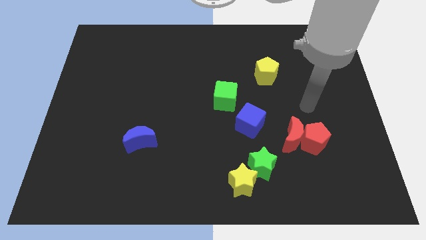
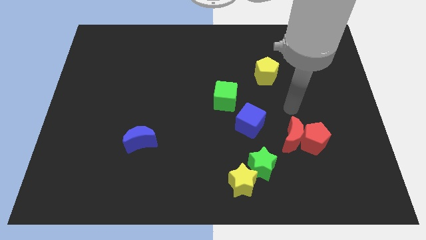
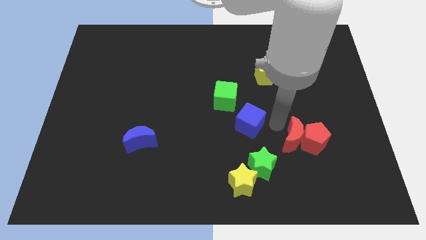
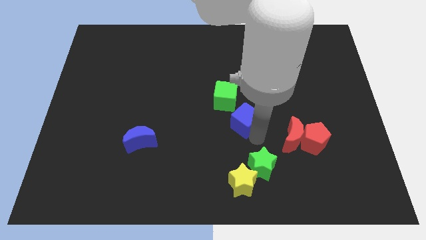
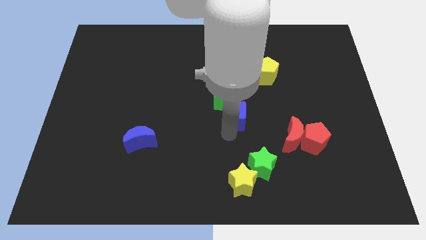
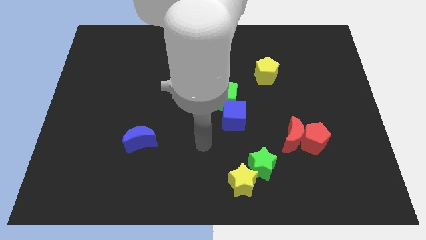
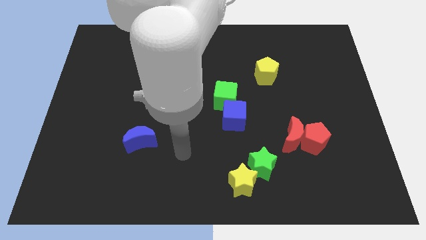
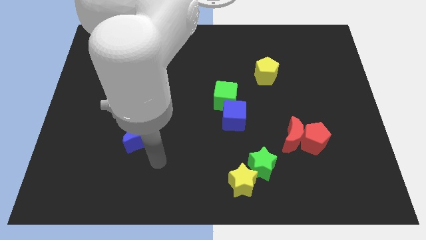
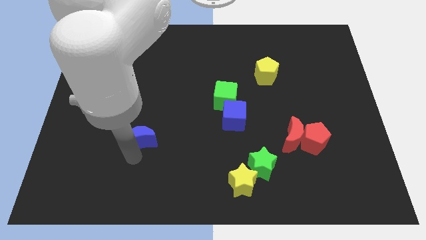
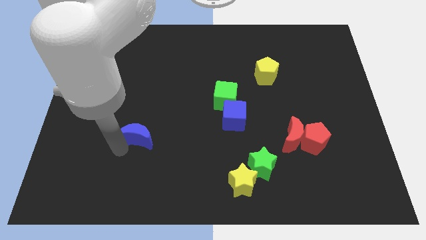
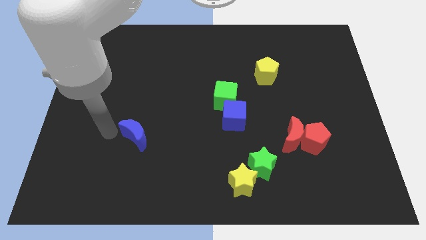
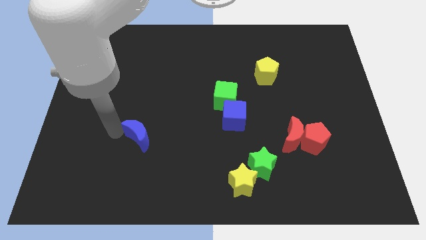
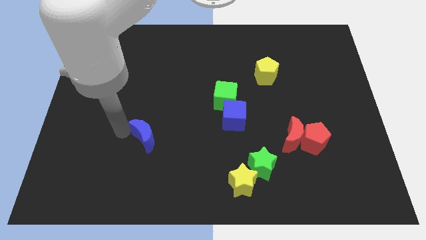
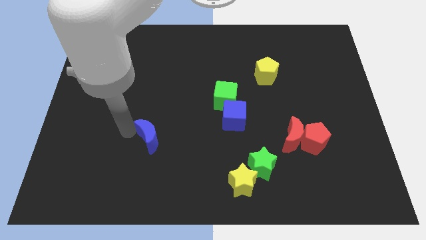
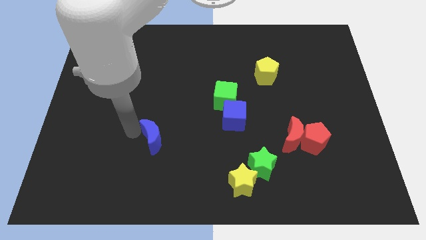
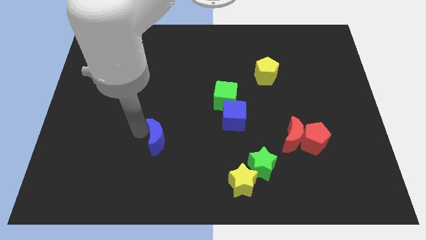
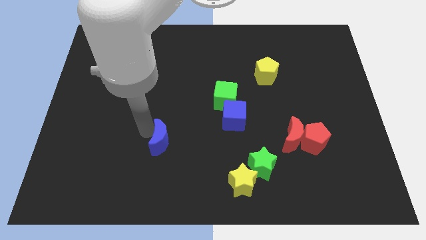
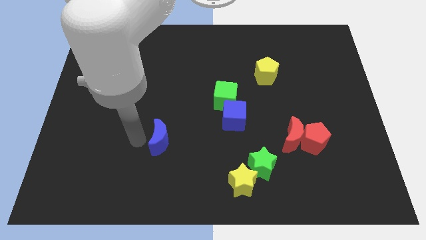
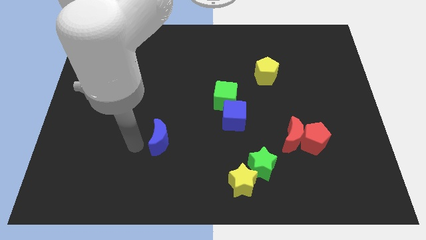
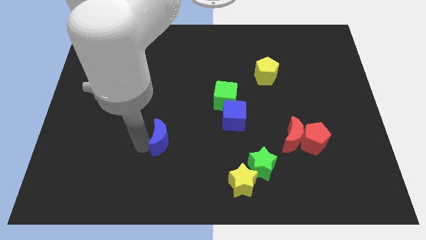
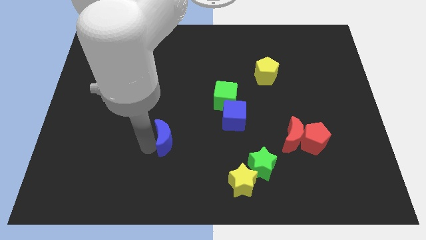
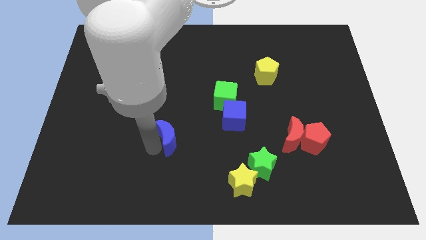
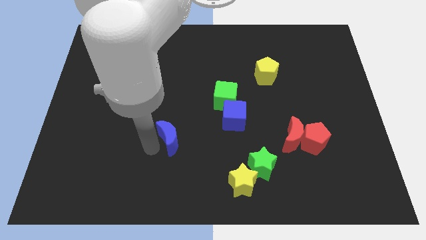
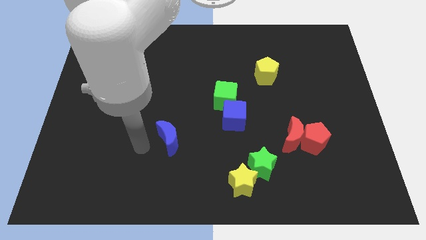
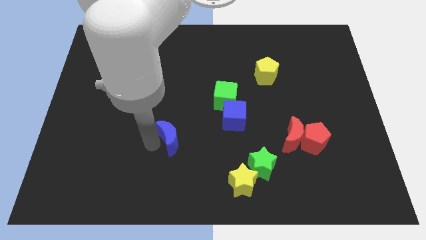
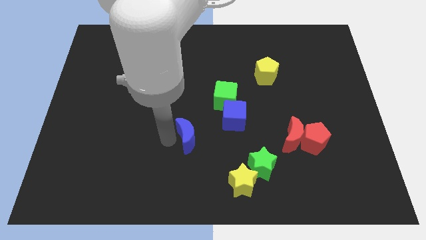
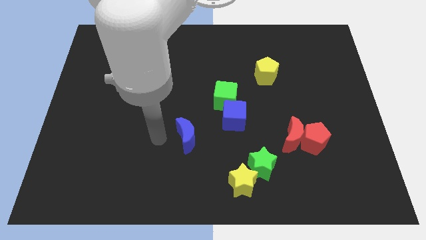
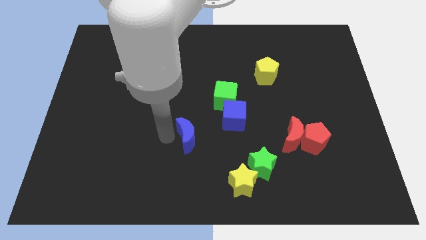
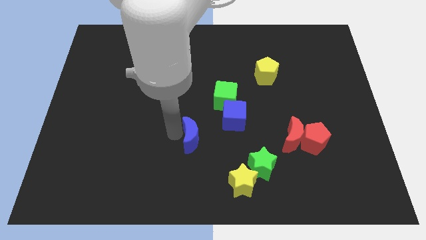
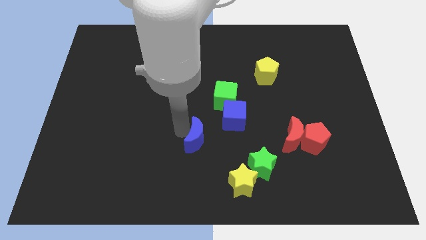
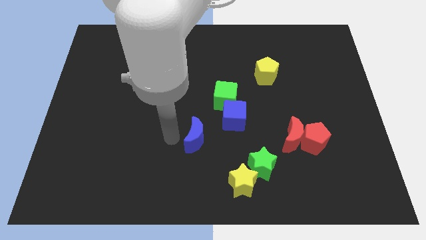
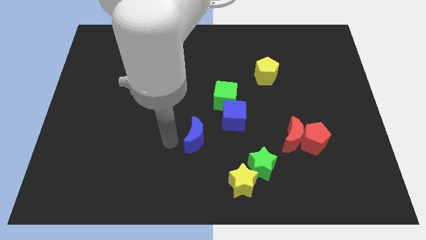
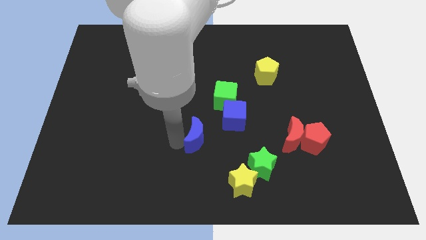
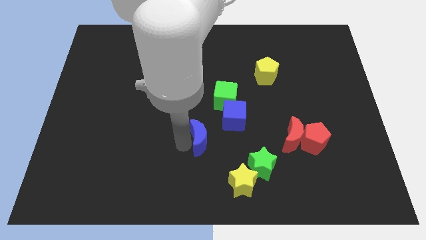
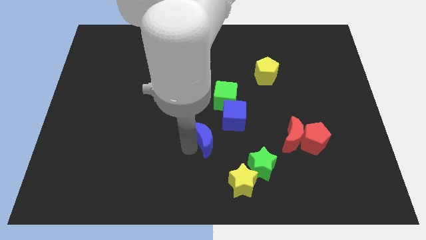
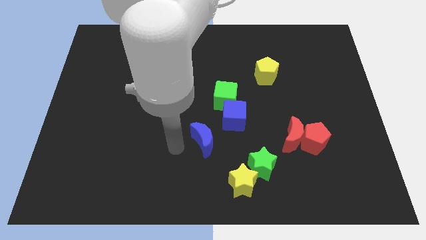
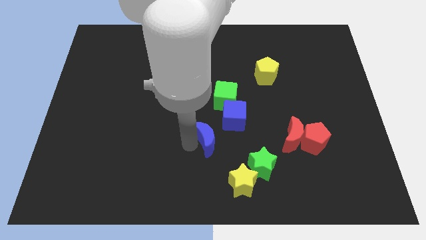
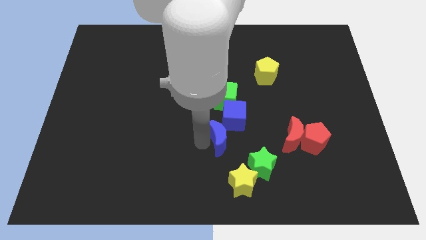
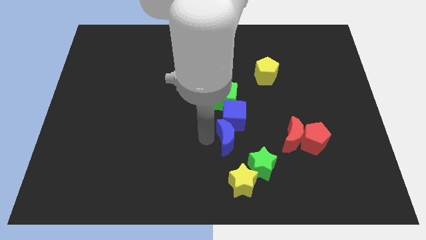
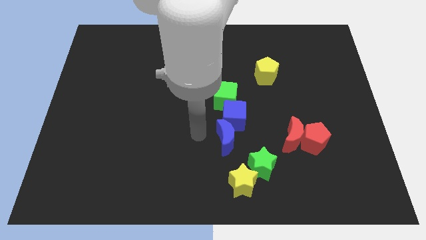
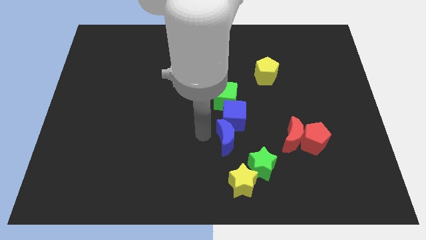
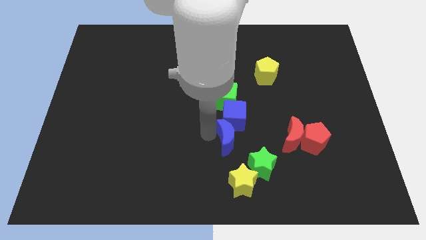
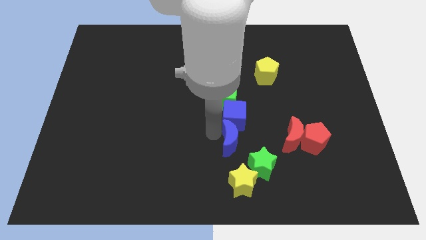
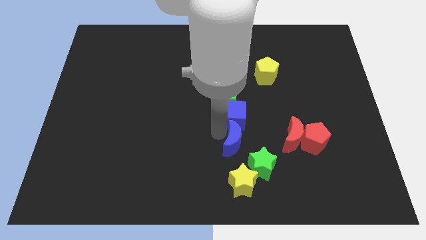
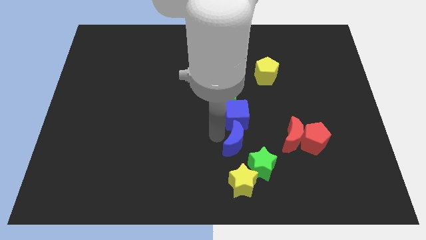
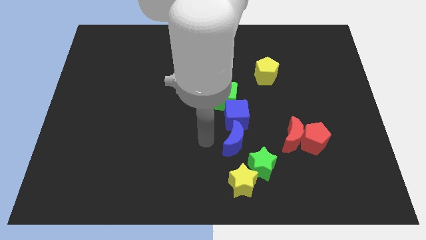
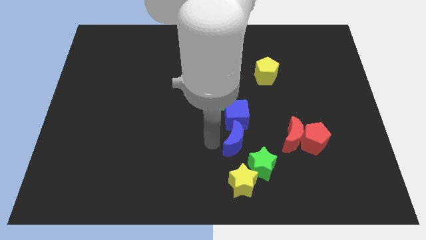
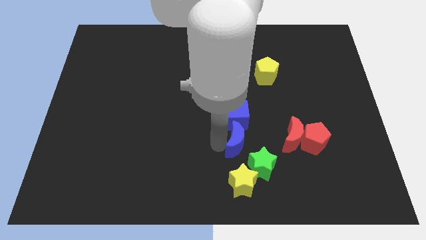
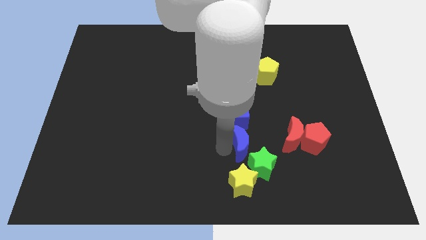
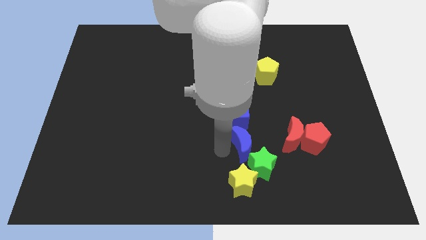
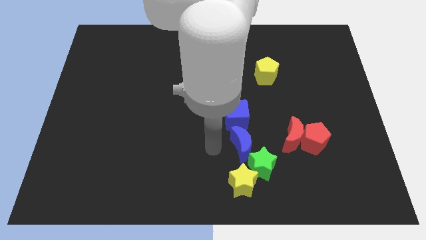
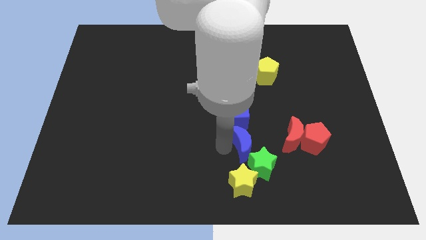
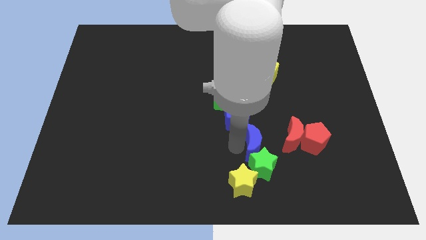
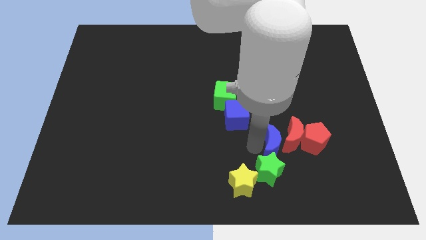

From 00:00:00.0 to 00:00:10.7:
push the blue moon to the red moon

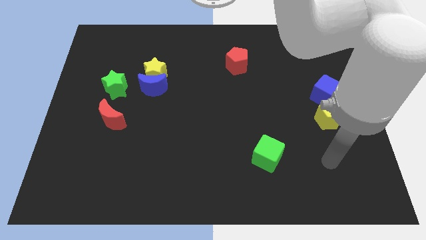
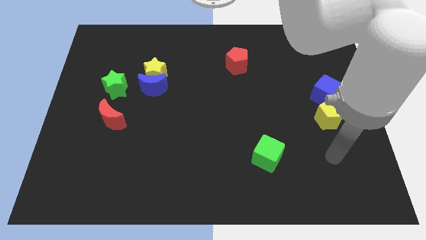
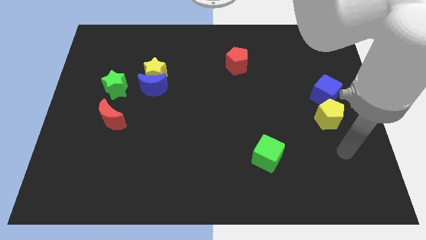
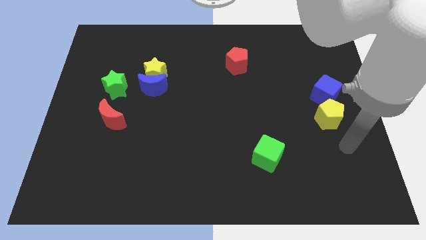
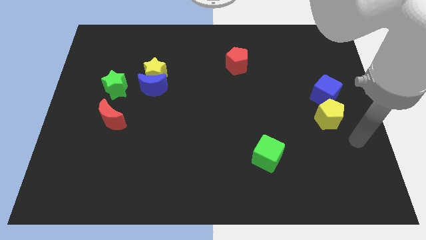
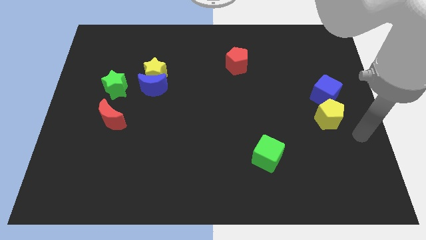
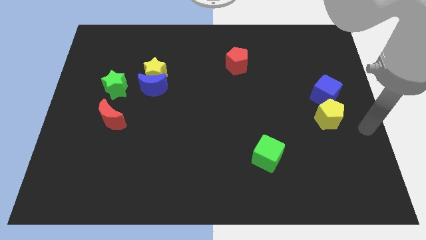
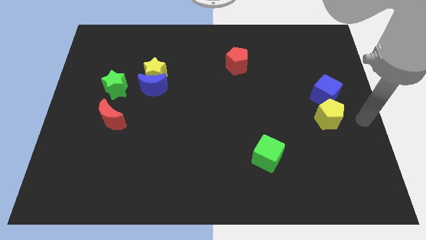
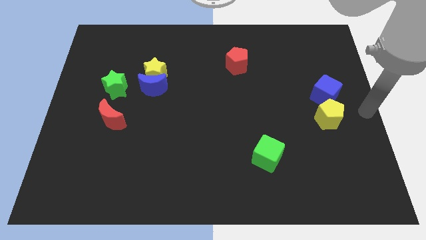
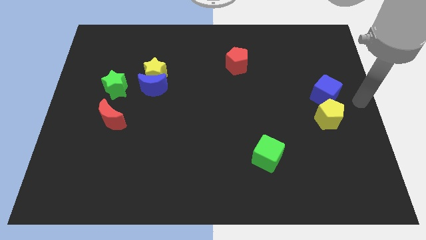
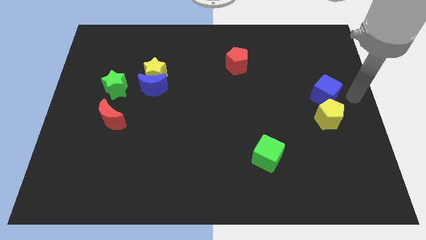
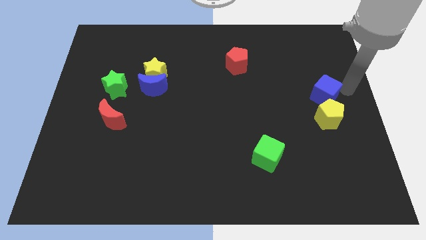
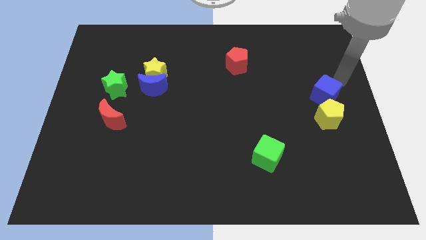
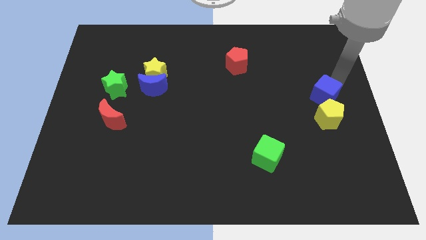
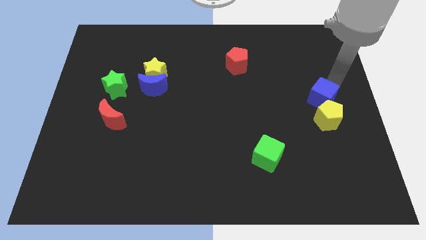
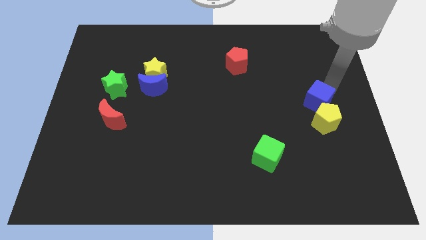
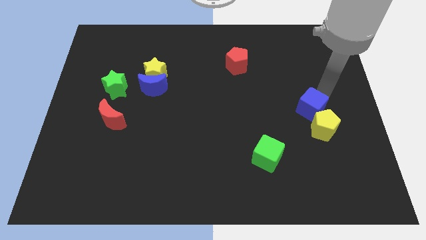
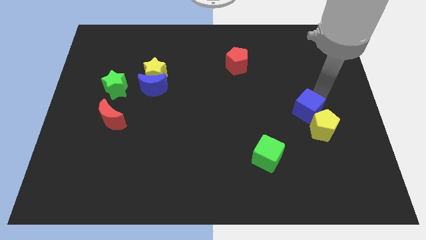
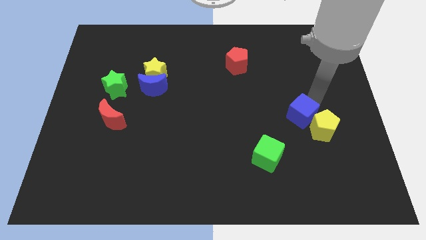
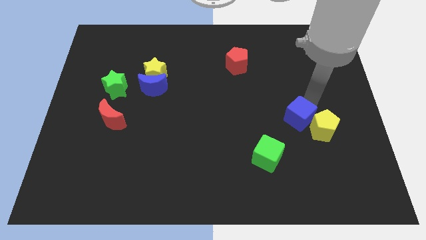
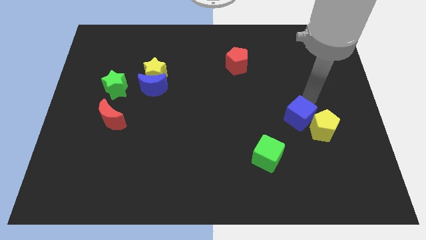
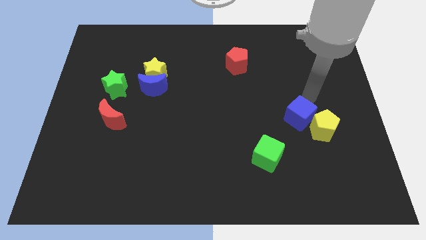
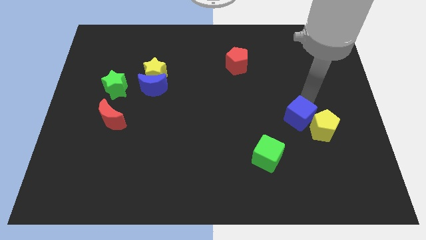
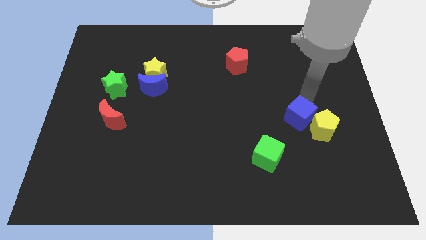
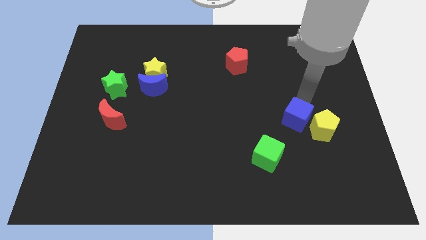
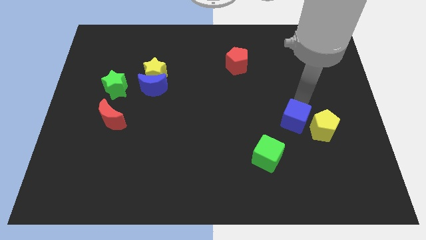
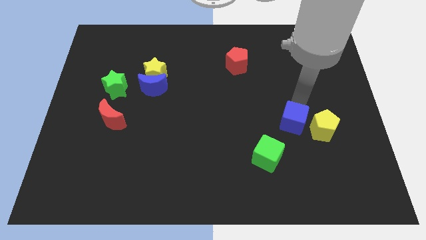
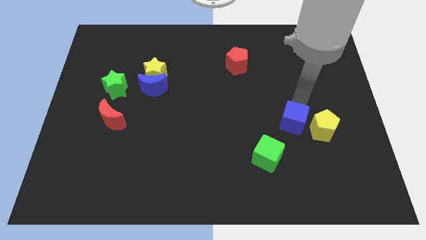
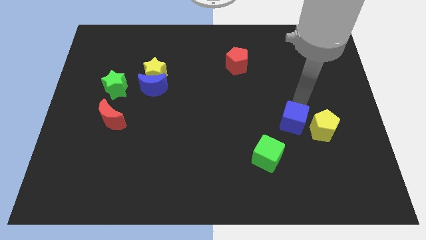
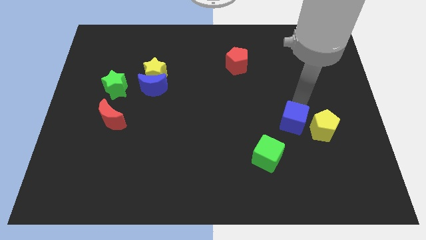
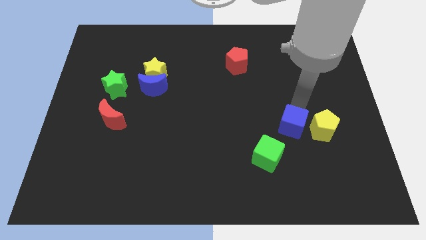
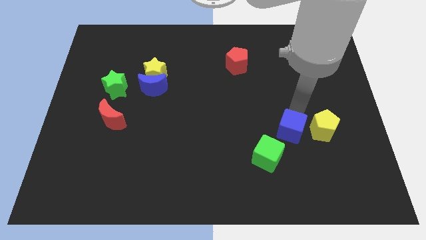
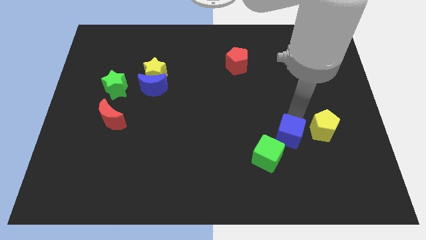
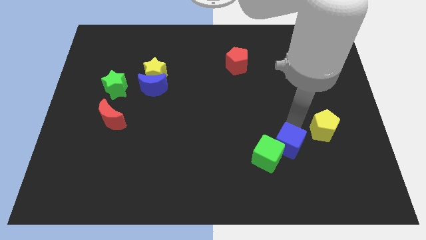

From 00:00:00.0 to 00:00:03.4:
move the blue cube towards the green cube
